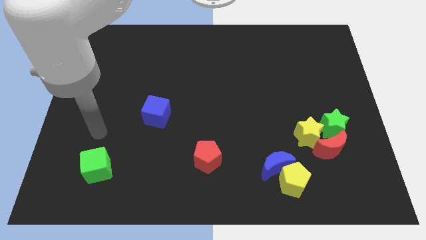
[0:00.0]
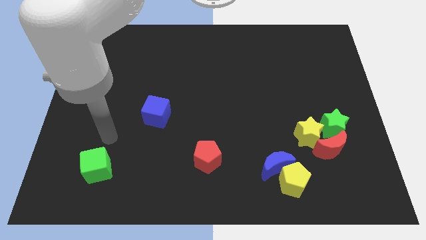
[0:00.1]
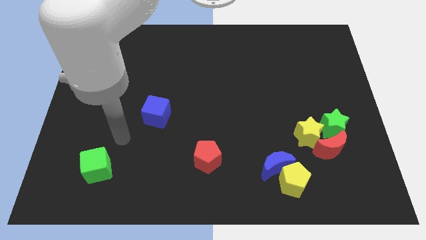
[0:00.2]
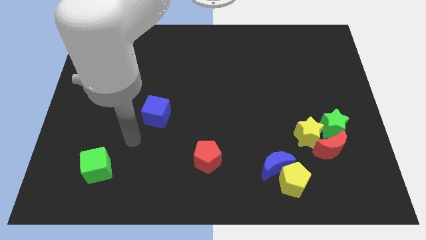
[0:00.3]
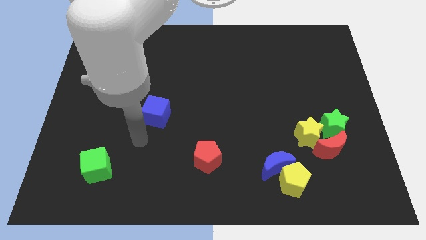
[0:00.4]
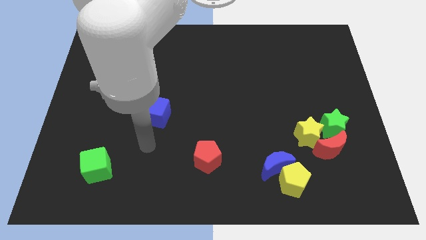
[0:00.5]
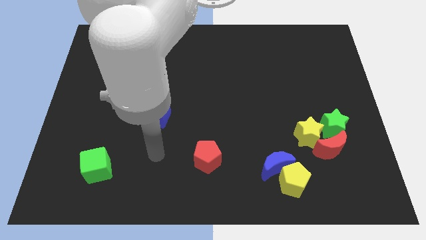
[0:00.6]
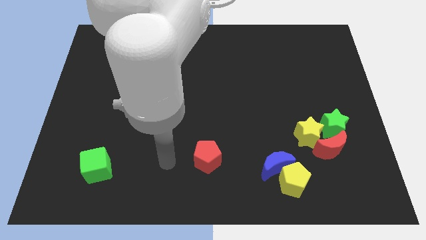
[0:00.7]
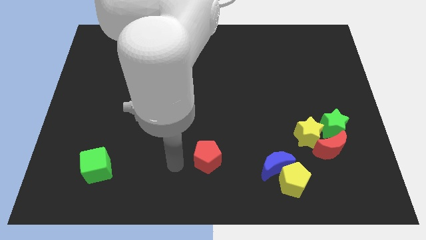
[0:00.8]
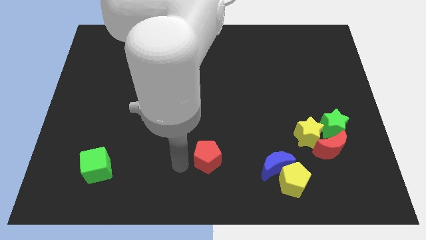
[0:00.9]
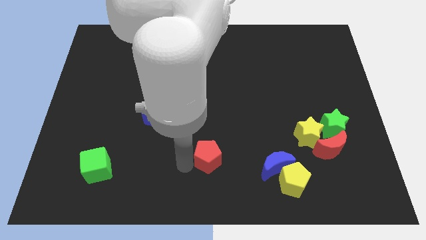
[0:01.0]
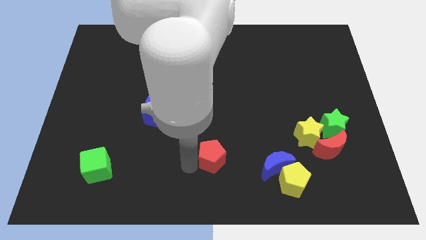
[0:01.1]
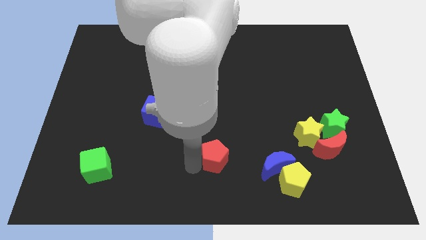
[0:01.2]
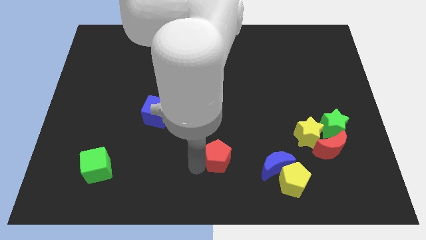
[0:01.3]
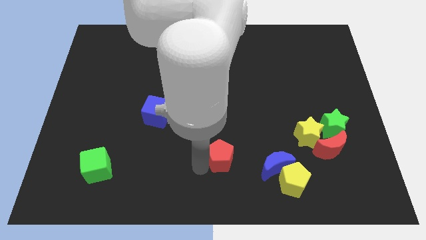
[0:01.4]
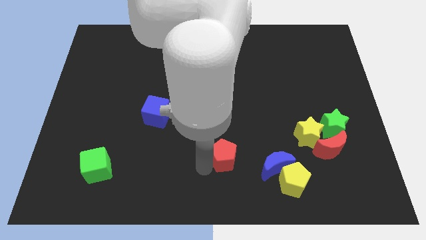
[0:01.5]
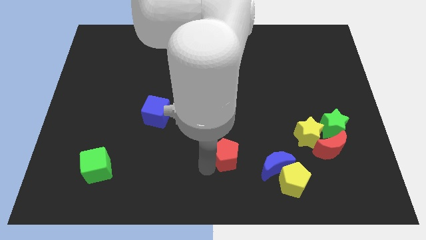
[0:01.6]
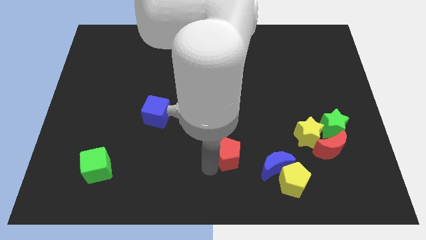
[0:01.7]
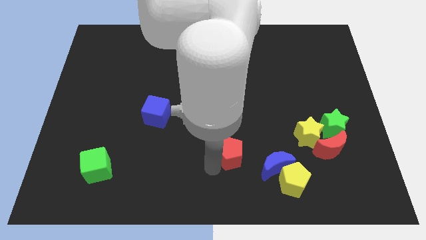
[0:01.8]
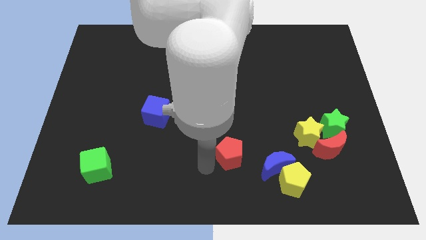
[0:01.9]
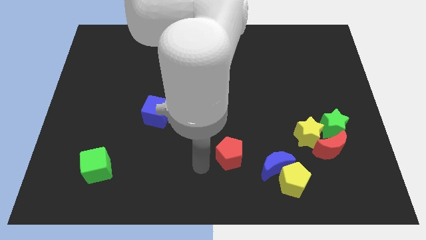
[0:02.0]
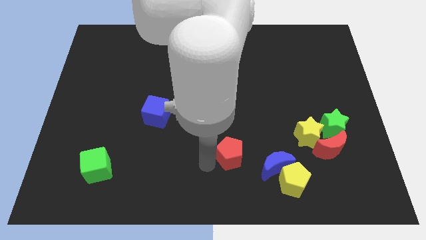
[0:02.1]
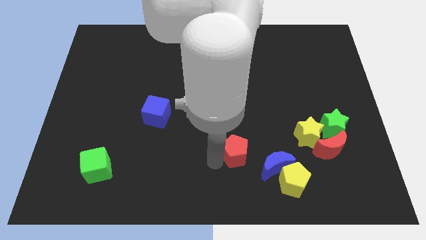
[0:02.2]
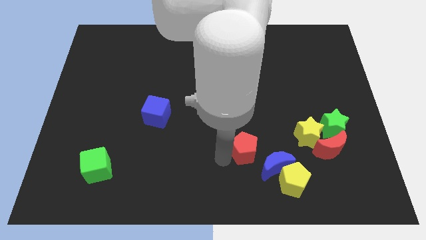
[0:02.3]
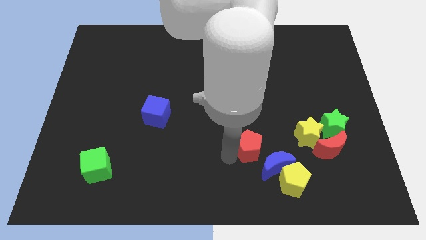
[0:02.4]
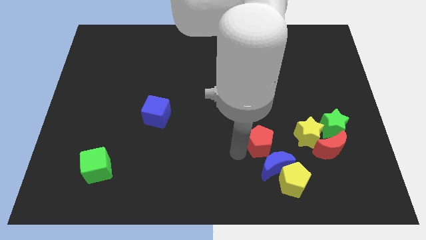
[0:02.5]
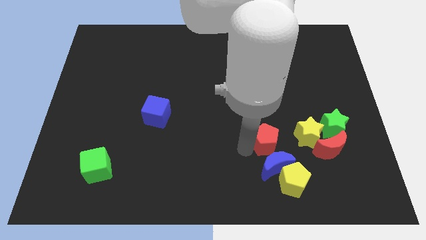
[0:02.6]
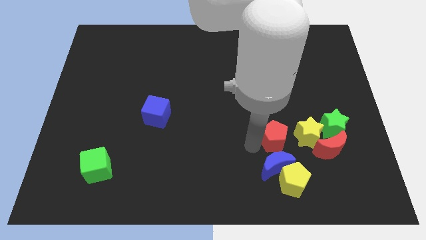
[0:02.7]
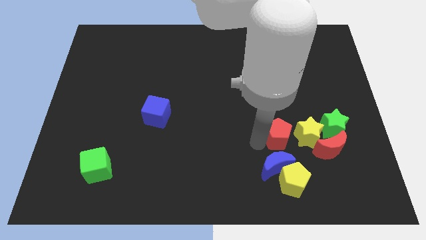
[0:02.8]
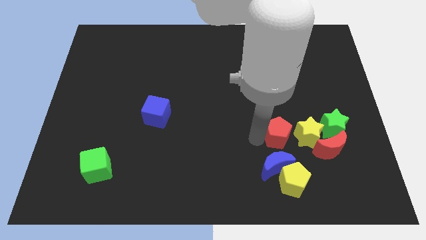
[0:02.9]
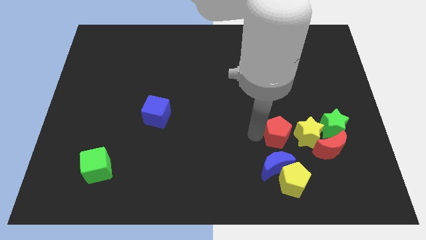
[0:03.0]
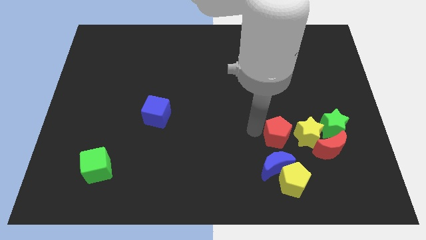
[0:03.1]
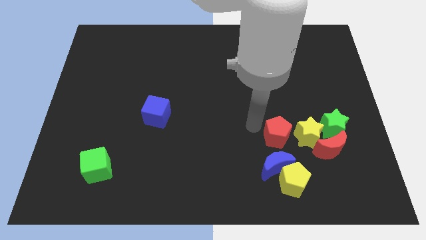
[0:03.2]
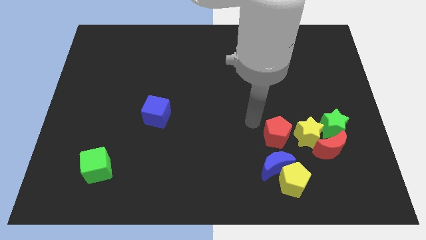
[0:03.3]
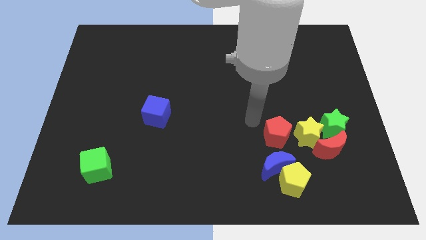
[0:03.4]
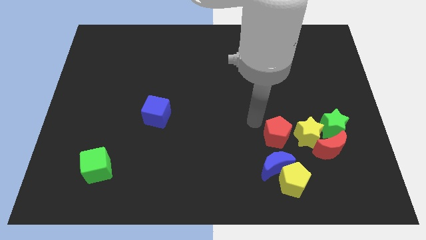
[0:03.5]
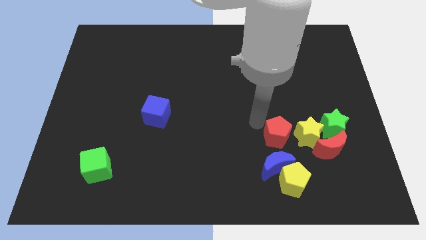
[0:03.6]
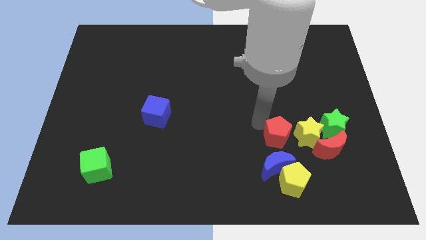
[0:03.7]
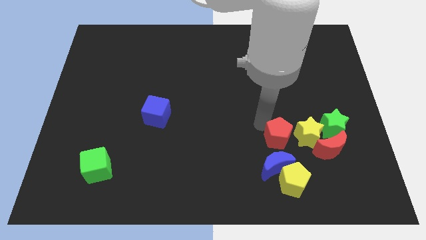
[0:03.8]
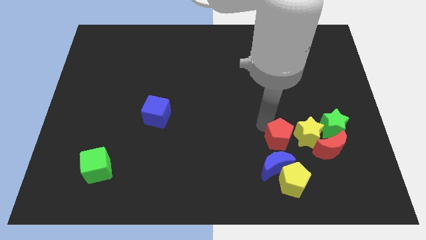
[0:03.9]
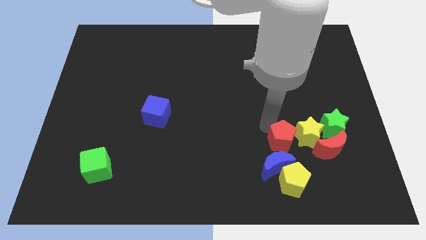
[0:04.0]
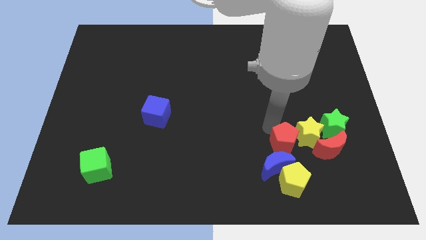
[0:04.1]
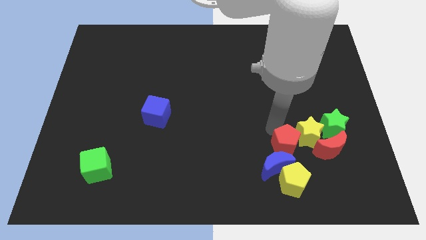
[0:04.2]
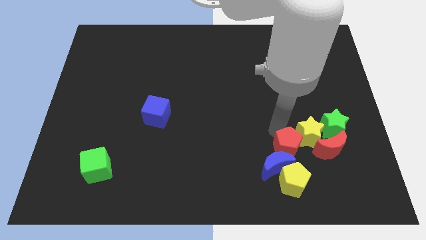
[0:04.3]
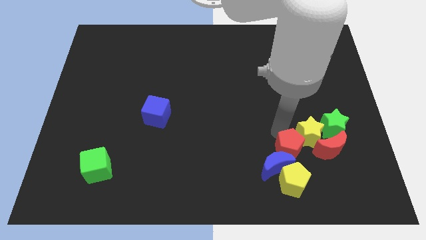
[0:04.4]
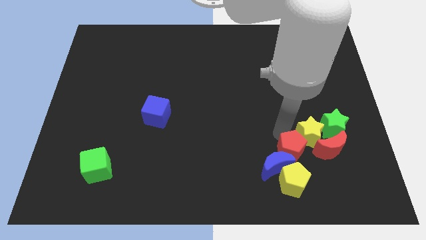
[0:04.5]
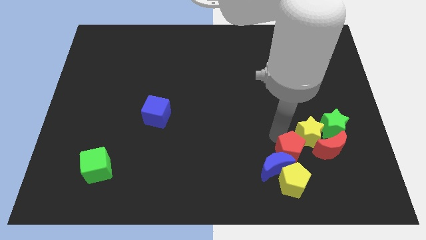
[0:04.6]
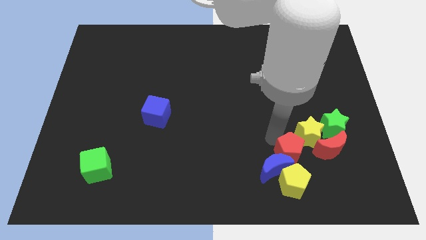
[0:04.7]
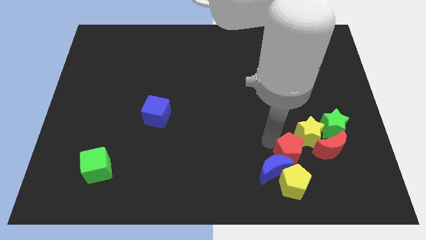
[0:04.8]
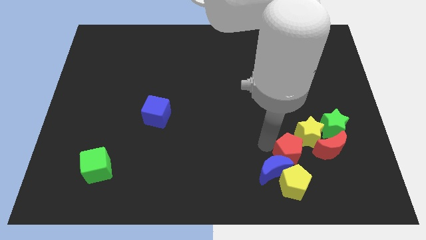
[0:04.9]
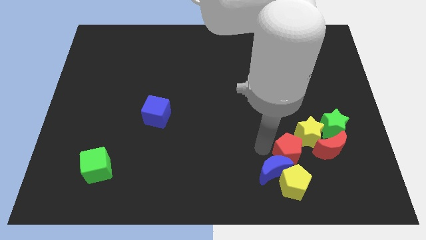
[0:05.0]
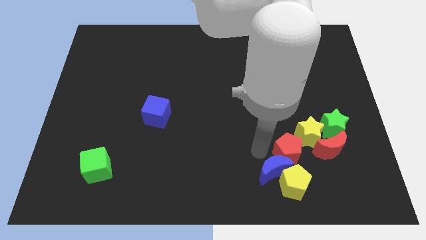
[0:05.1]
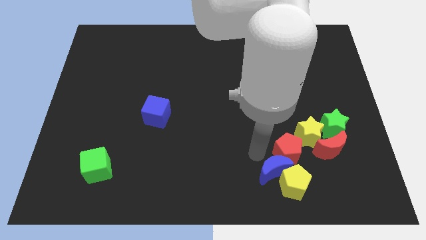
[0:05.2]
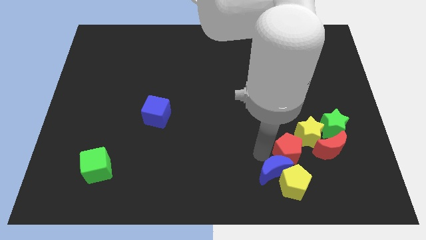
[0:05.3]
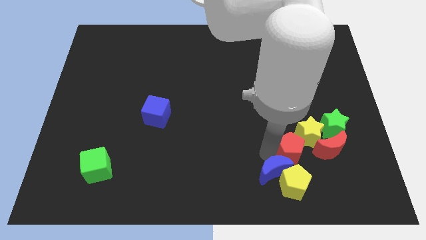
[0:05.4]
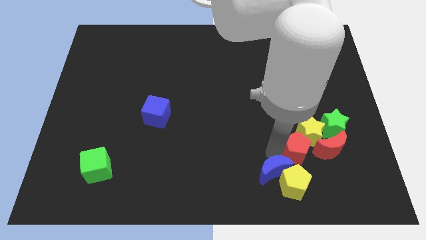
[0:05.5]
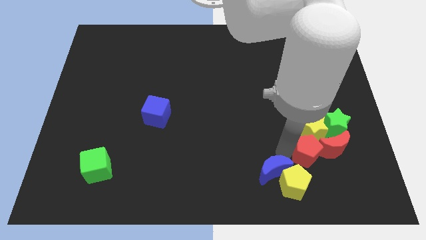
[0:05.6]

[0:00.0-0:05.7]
slide the red pentagon next to the red moon

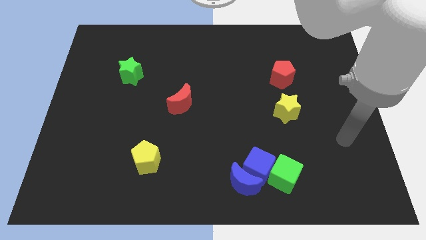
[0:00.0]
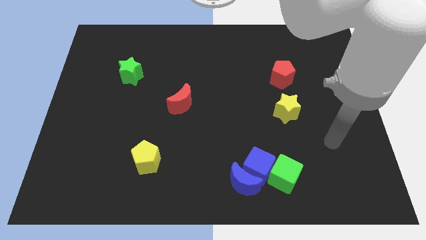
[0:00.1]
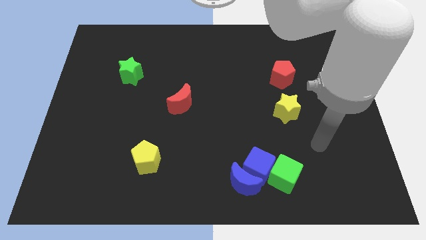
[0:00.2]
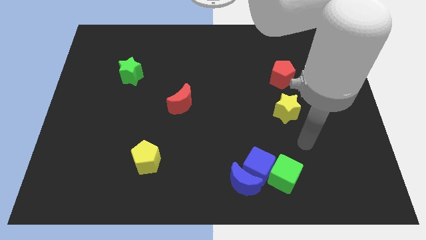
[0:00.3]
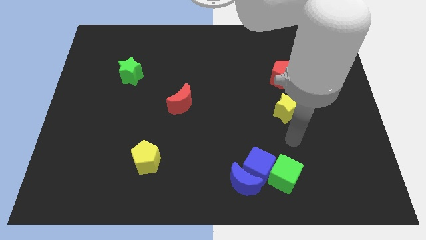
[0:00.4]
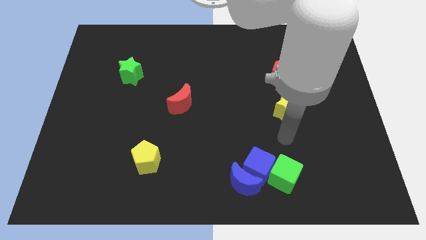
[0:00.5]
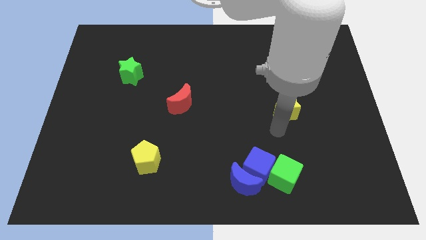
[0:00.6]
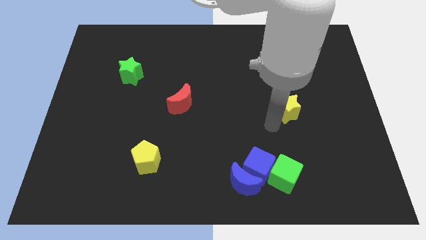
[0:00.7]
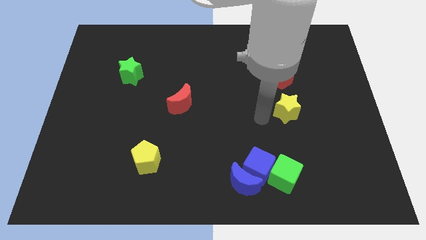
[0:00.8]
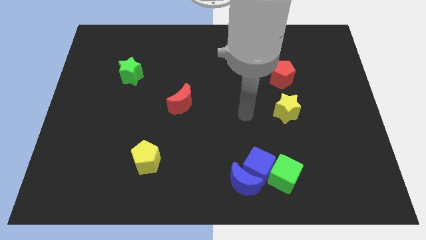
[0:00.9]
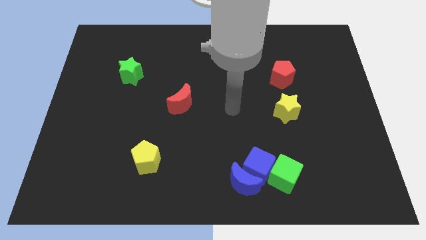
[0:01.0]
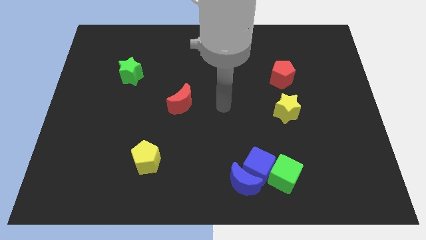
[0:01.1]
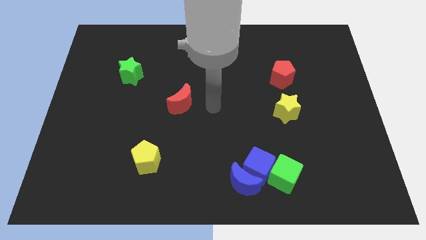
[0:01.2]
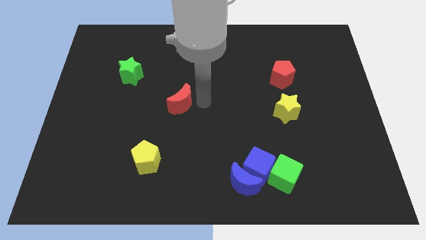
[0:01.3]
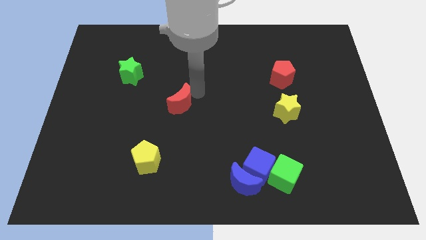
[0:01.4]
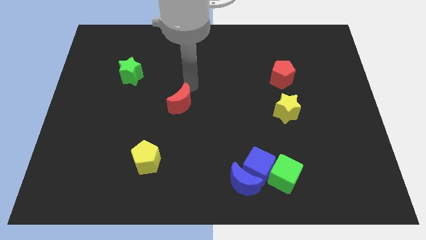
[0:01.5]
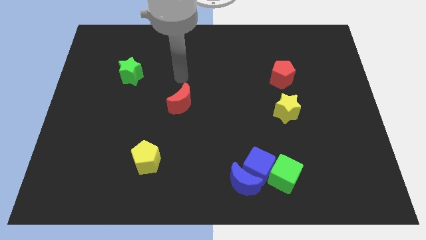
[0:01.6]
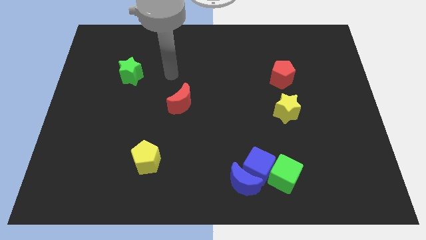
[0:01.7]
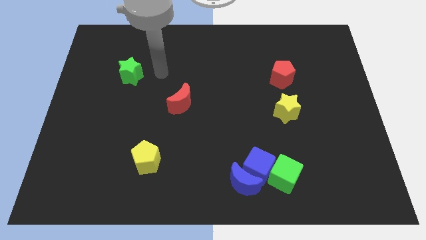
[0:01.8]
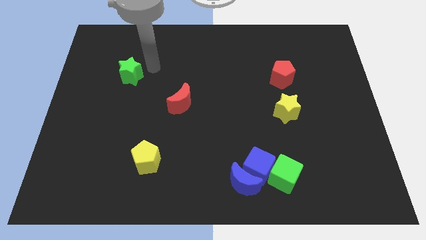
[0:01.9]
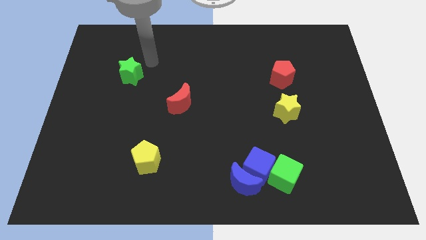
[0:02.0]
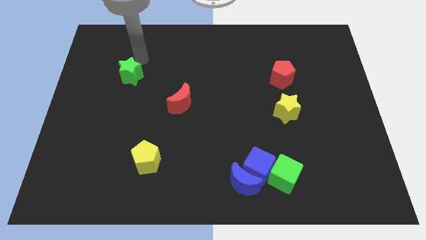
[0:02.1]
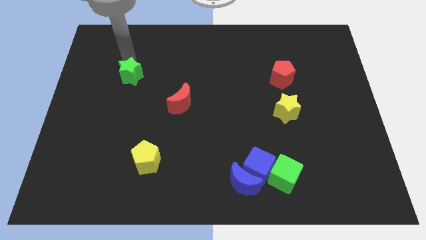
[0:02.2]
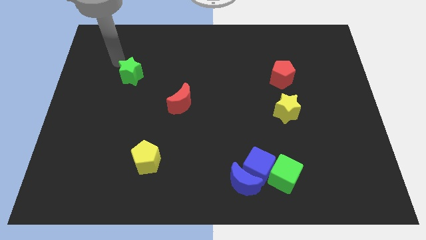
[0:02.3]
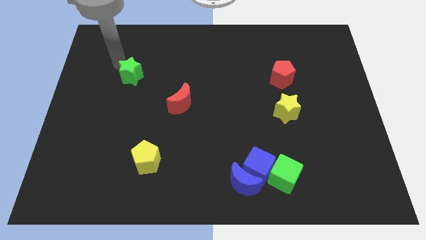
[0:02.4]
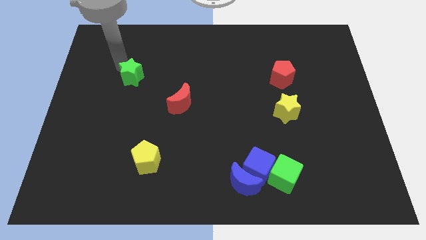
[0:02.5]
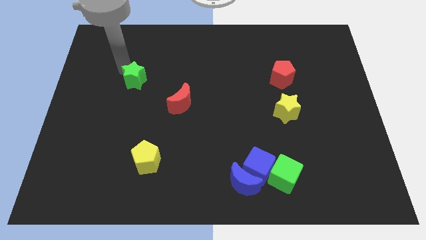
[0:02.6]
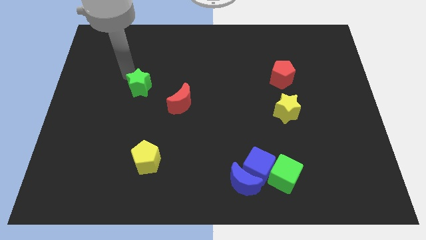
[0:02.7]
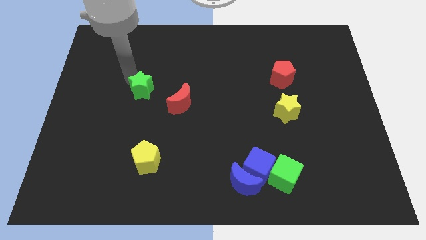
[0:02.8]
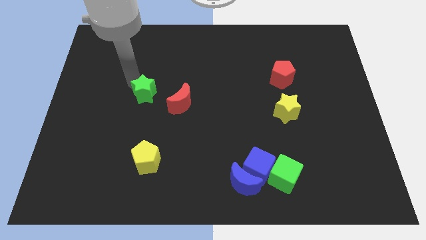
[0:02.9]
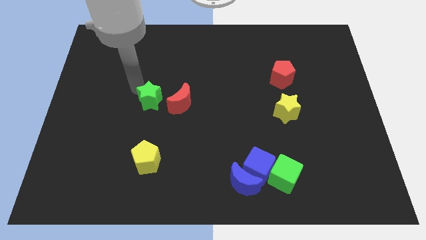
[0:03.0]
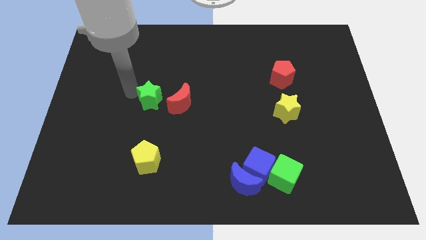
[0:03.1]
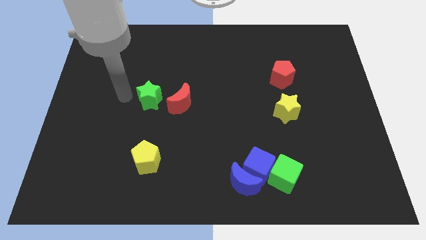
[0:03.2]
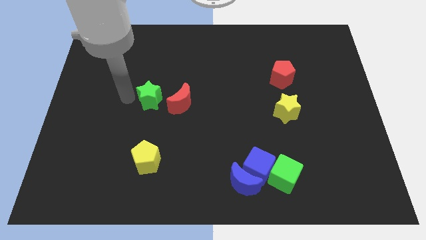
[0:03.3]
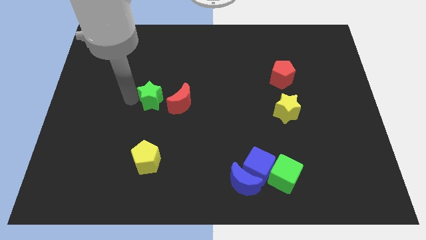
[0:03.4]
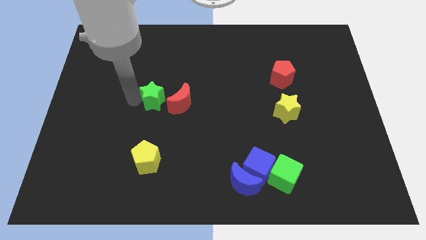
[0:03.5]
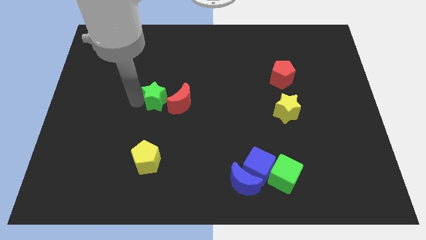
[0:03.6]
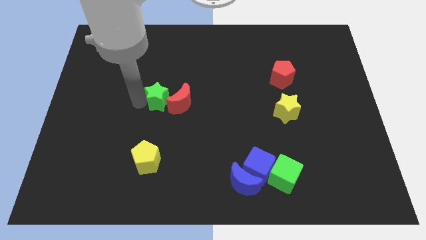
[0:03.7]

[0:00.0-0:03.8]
slide the green star close to the red moon
